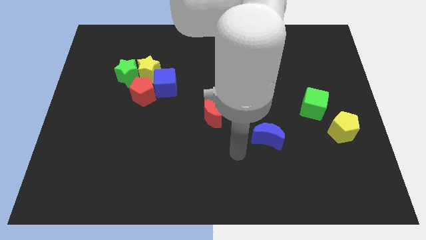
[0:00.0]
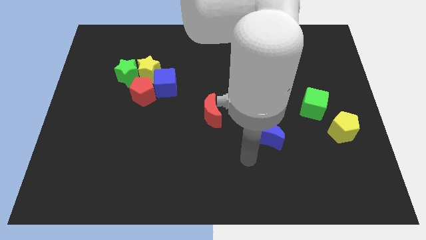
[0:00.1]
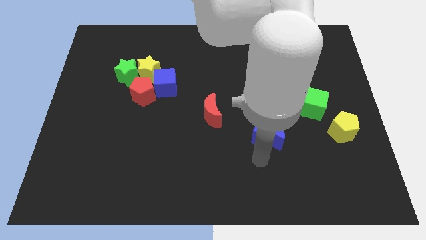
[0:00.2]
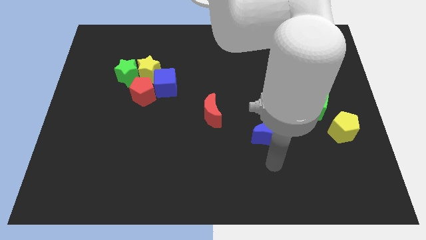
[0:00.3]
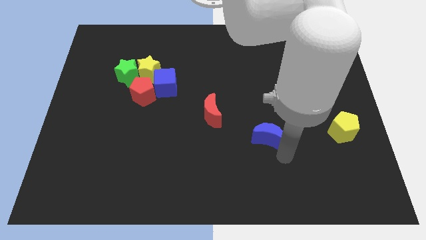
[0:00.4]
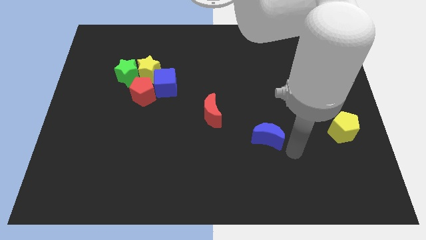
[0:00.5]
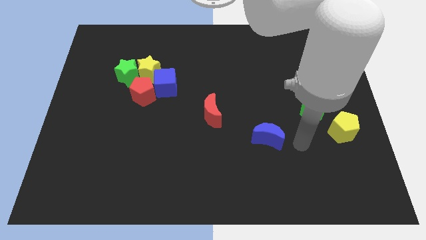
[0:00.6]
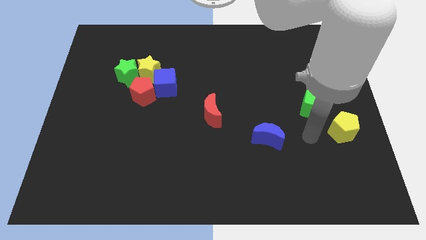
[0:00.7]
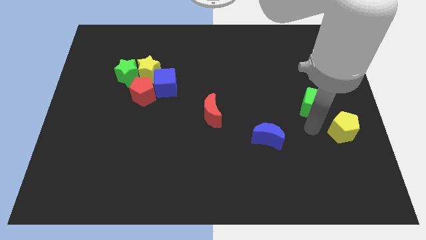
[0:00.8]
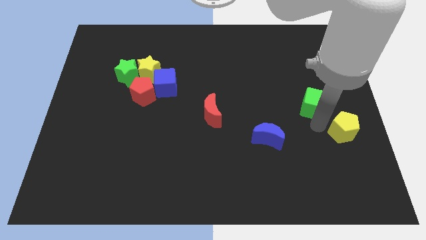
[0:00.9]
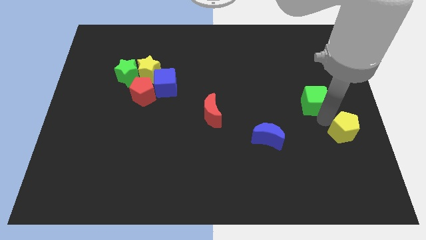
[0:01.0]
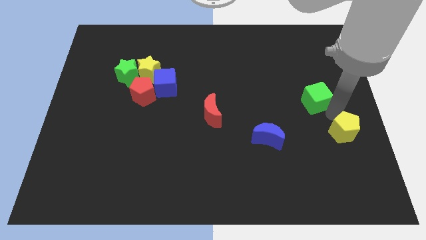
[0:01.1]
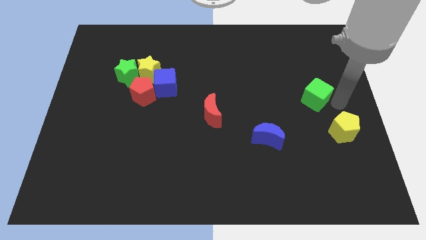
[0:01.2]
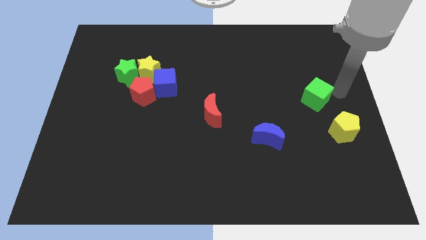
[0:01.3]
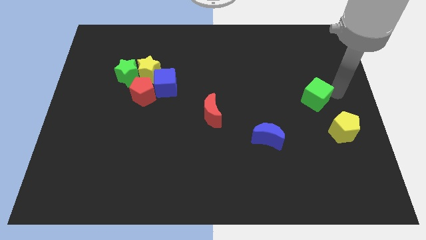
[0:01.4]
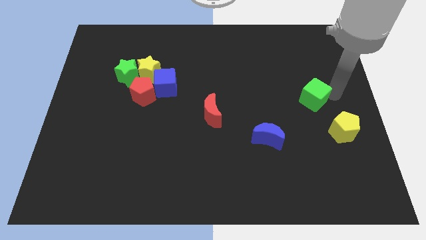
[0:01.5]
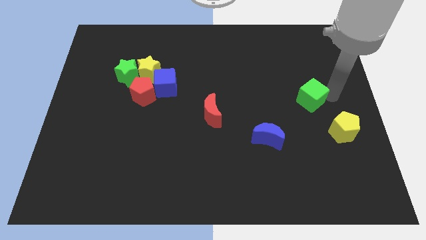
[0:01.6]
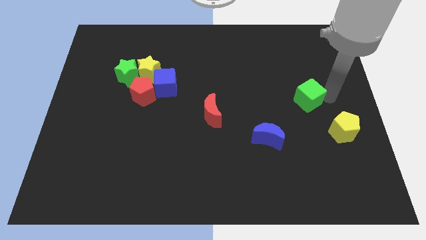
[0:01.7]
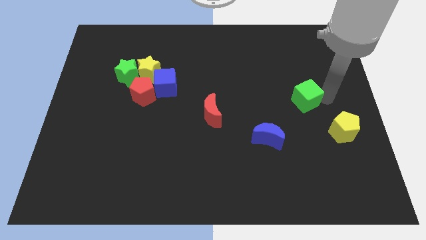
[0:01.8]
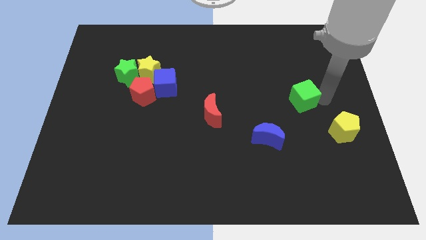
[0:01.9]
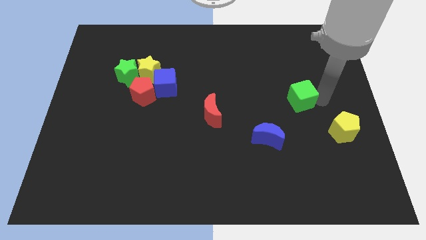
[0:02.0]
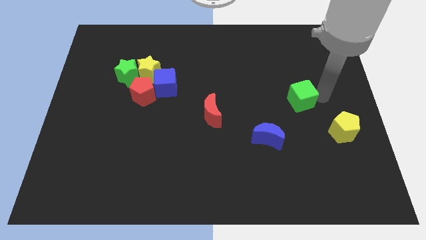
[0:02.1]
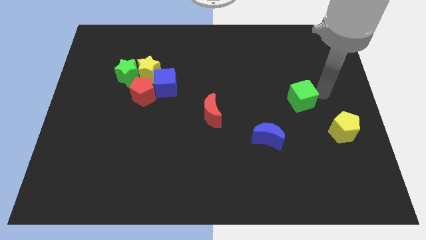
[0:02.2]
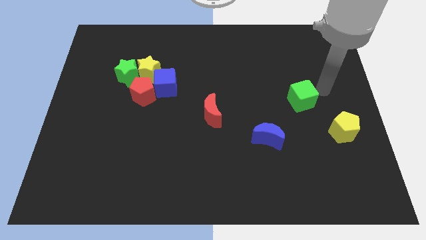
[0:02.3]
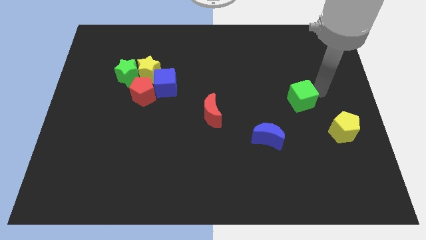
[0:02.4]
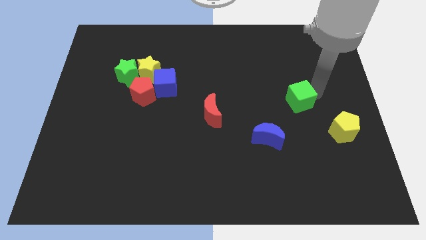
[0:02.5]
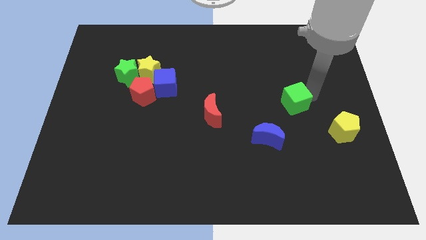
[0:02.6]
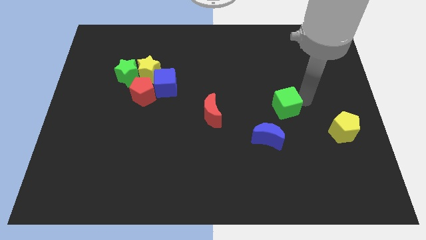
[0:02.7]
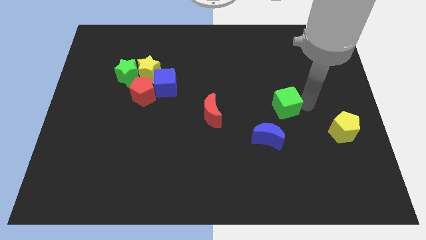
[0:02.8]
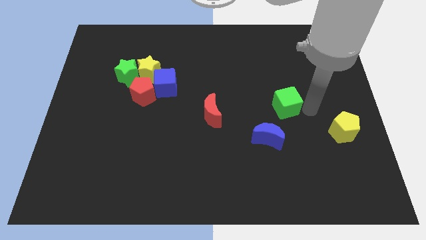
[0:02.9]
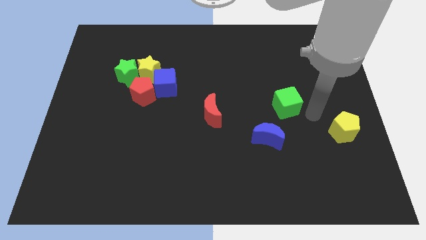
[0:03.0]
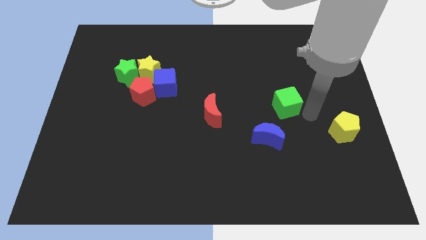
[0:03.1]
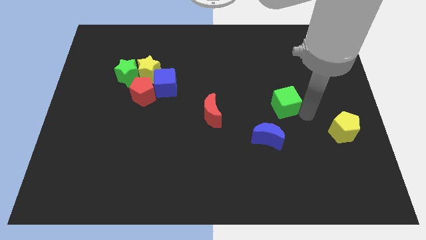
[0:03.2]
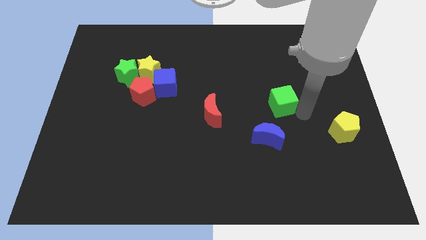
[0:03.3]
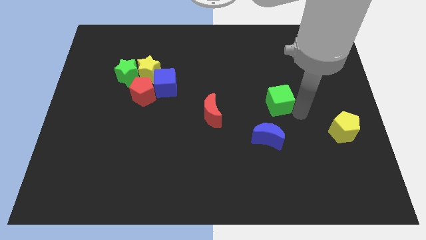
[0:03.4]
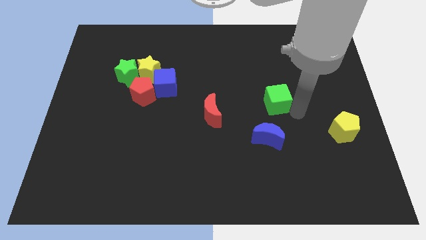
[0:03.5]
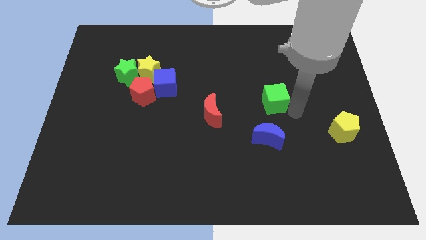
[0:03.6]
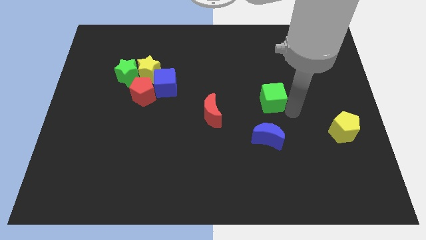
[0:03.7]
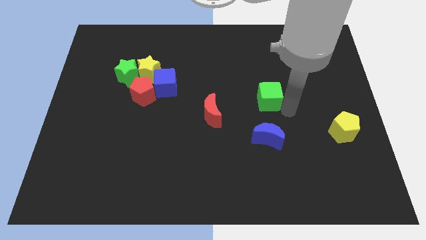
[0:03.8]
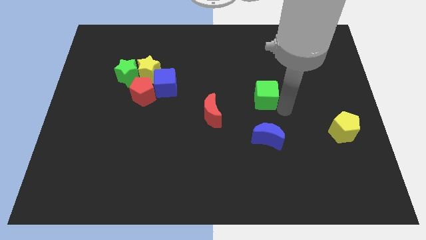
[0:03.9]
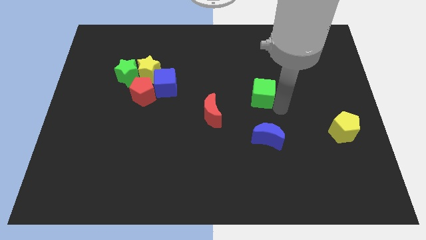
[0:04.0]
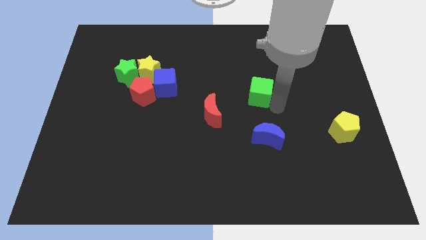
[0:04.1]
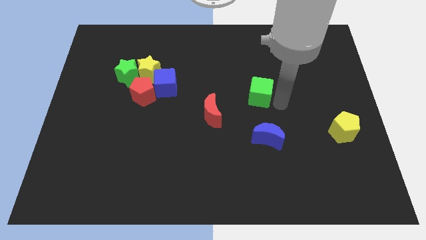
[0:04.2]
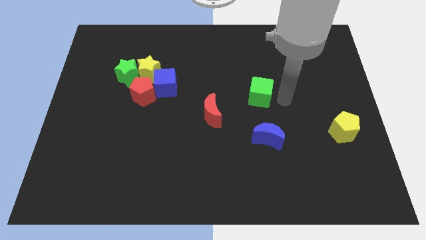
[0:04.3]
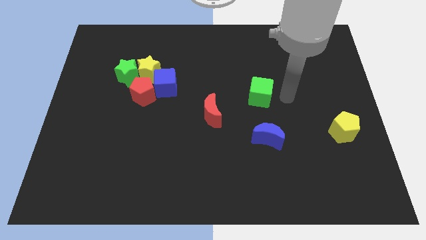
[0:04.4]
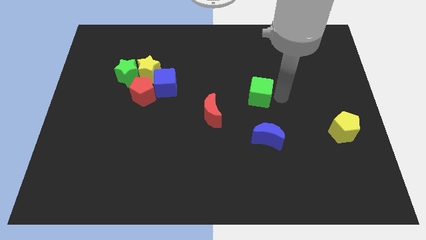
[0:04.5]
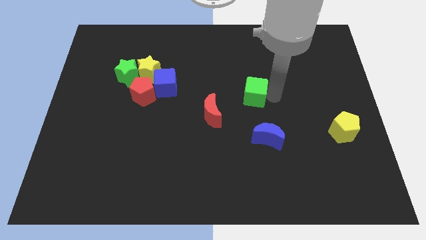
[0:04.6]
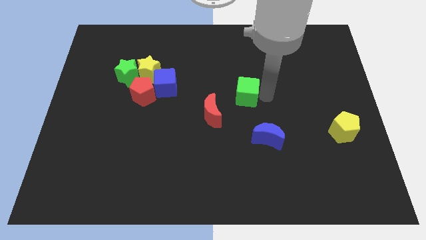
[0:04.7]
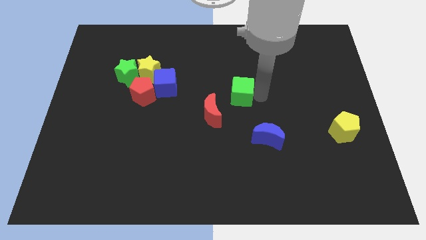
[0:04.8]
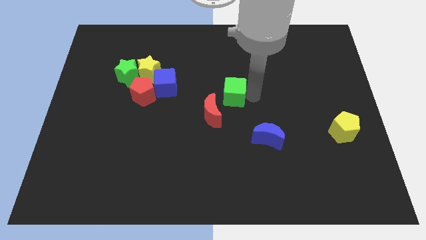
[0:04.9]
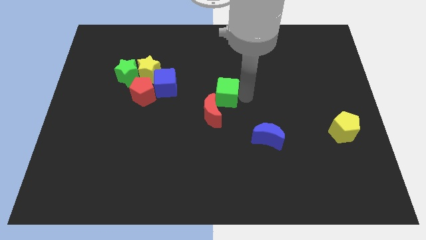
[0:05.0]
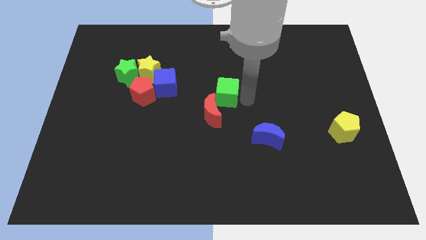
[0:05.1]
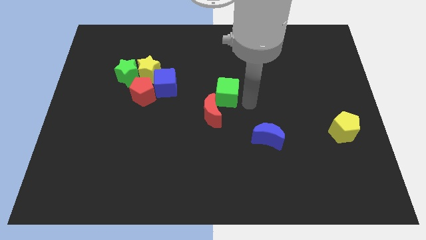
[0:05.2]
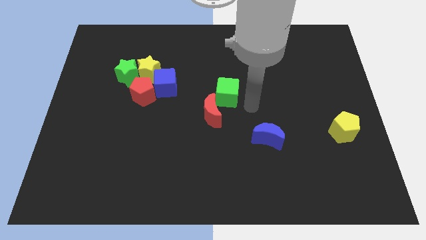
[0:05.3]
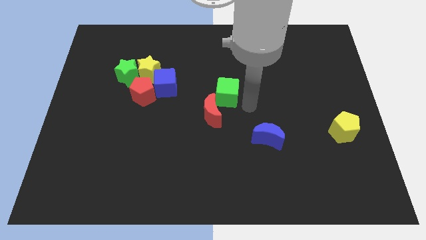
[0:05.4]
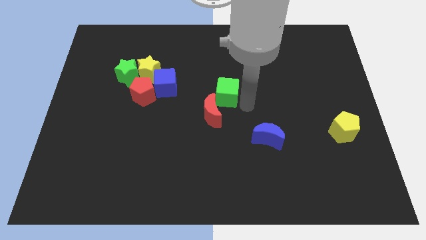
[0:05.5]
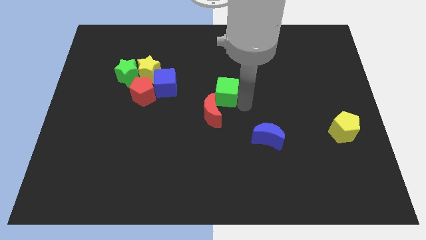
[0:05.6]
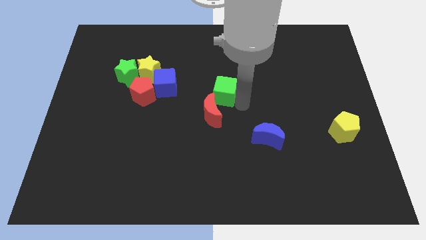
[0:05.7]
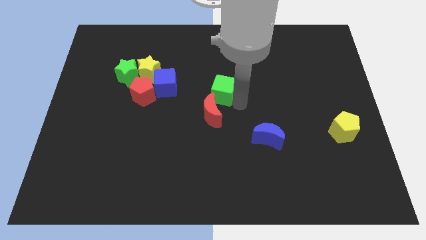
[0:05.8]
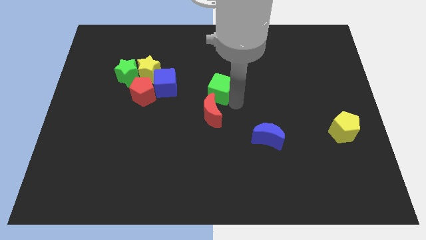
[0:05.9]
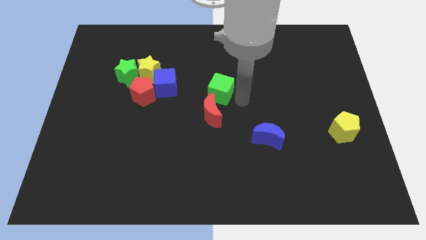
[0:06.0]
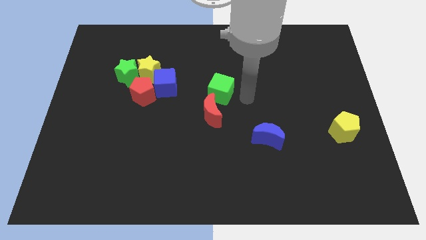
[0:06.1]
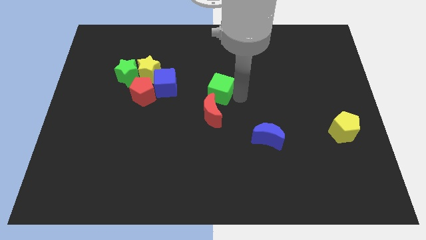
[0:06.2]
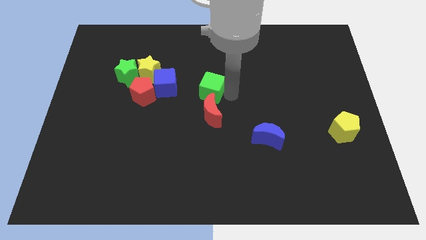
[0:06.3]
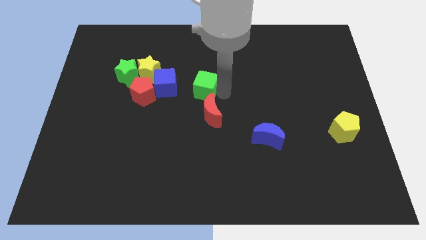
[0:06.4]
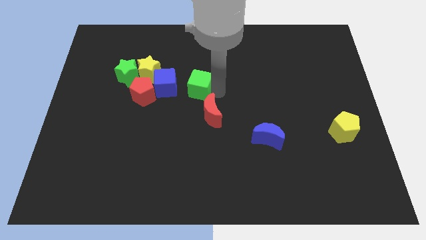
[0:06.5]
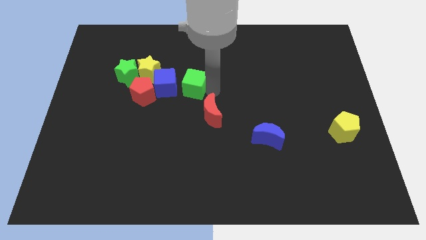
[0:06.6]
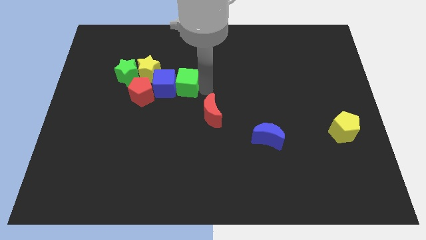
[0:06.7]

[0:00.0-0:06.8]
slide the green cube next to the blue cube
